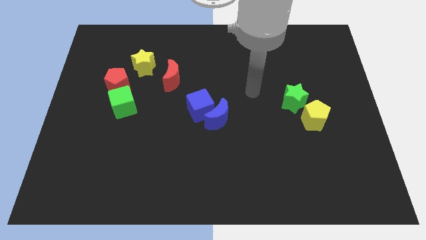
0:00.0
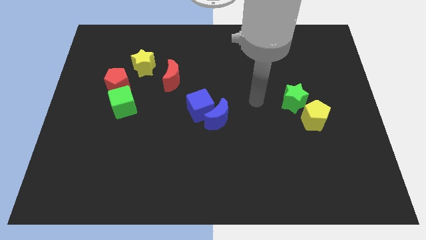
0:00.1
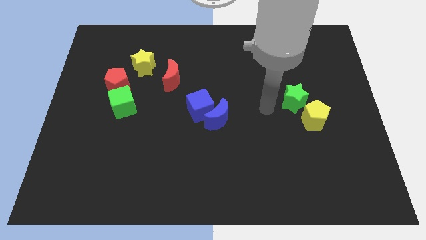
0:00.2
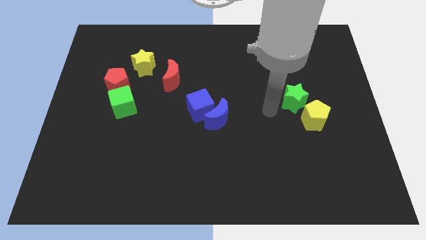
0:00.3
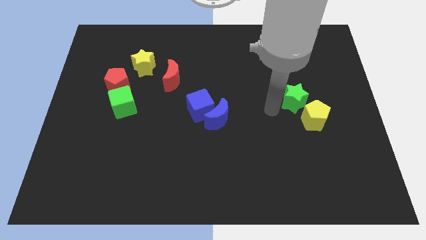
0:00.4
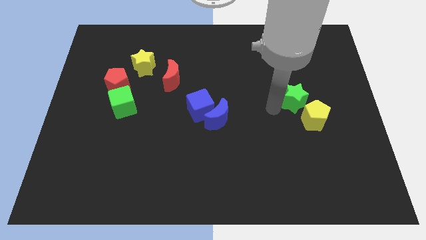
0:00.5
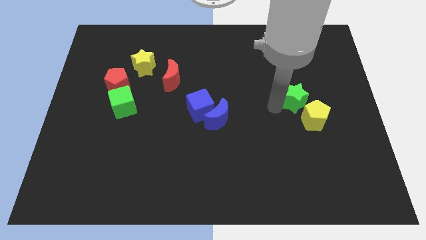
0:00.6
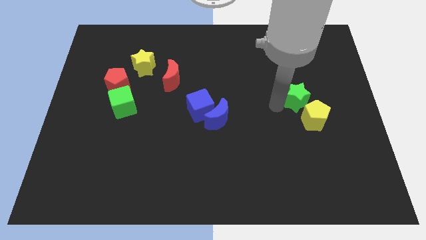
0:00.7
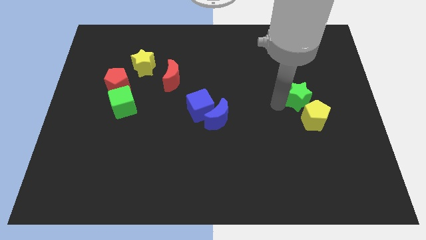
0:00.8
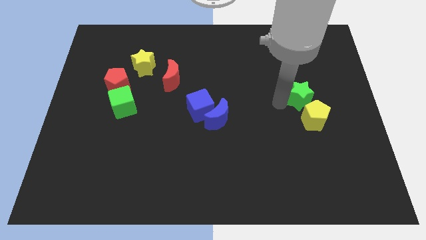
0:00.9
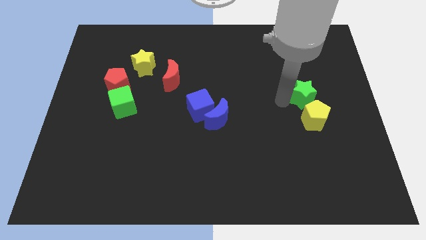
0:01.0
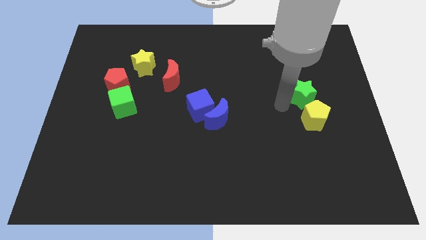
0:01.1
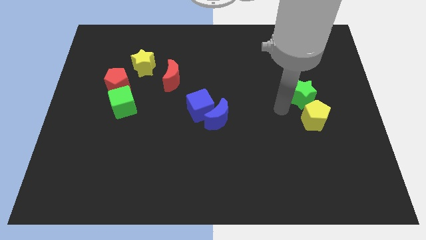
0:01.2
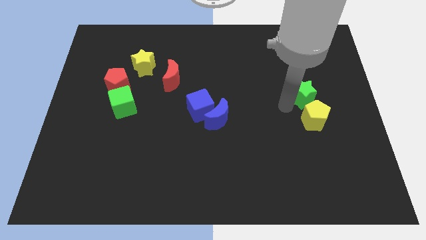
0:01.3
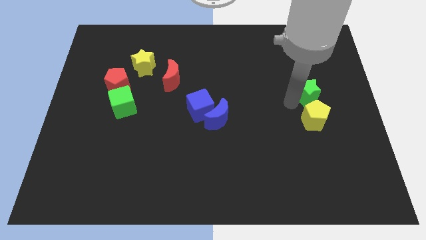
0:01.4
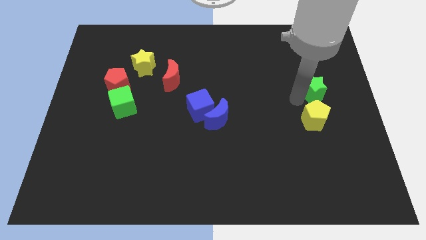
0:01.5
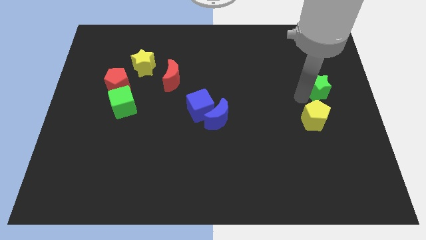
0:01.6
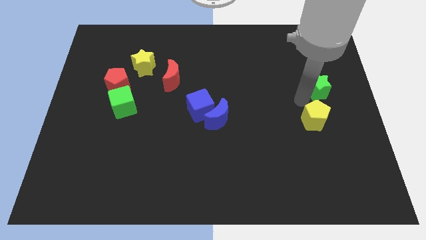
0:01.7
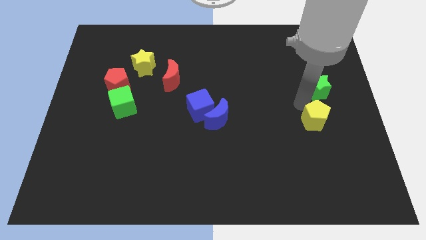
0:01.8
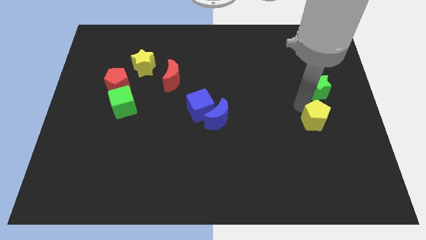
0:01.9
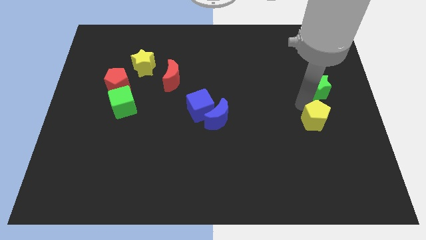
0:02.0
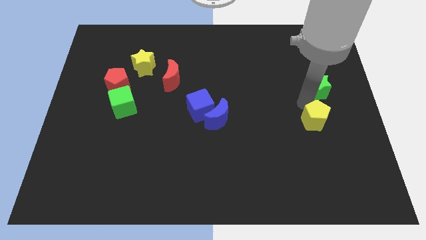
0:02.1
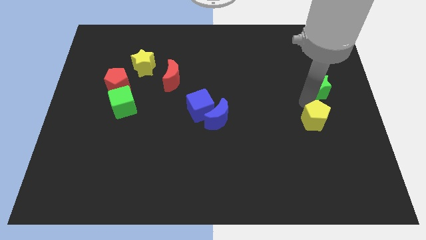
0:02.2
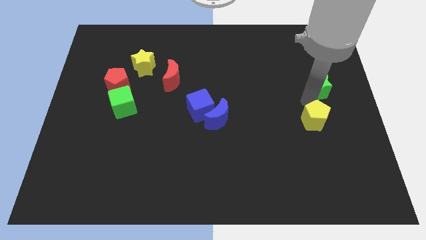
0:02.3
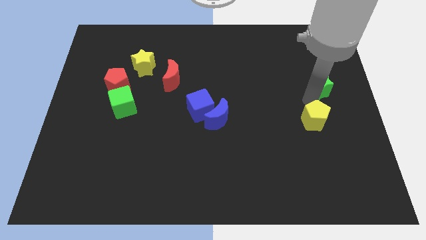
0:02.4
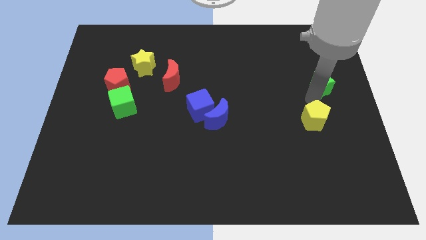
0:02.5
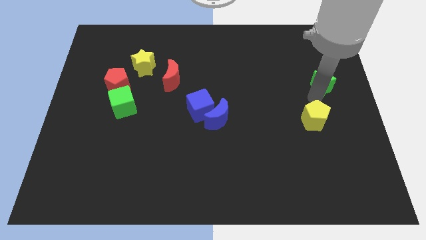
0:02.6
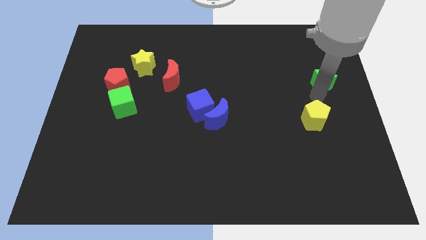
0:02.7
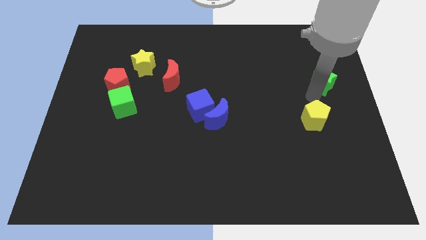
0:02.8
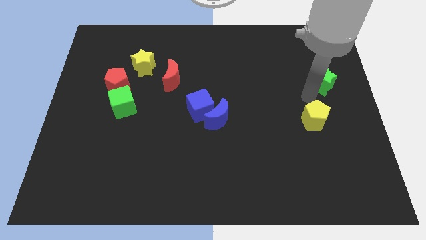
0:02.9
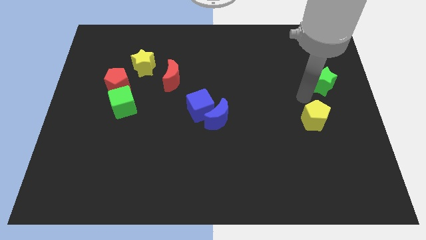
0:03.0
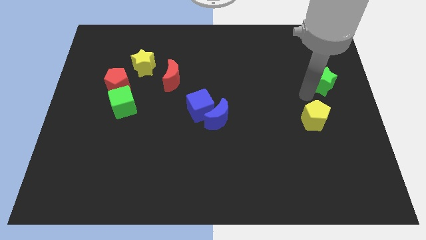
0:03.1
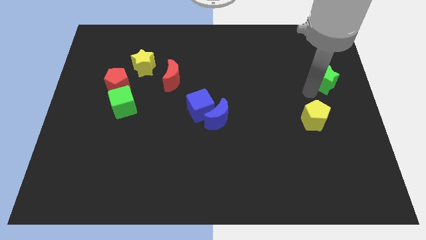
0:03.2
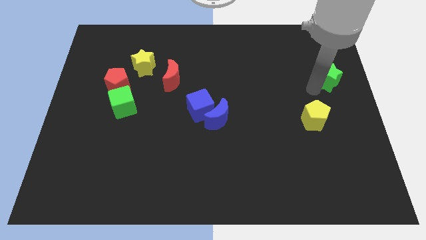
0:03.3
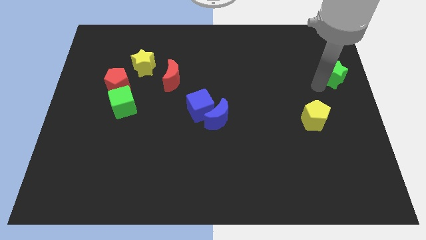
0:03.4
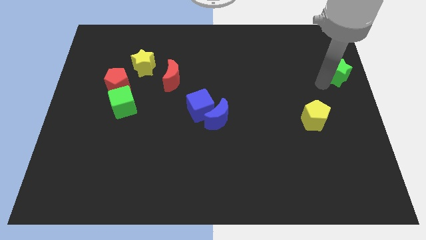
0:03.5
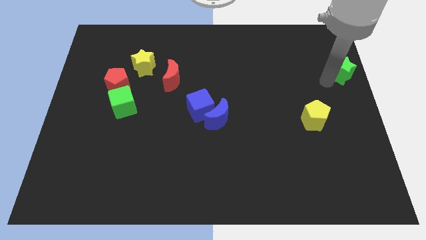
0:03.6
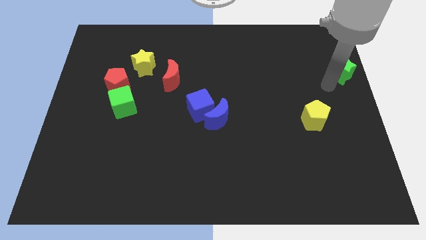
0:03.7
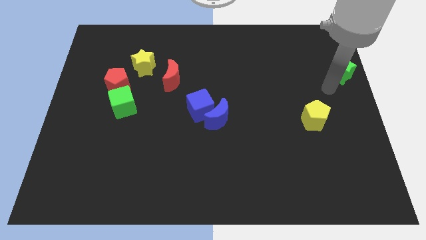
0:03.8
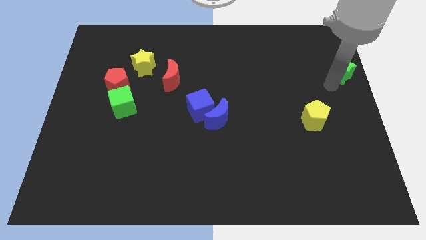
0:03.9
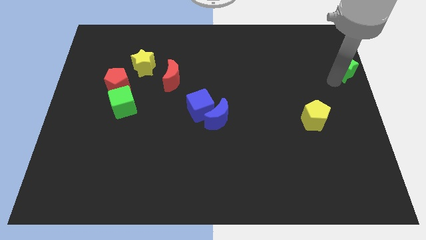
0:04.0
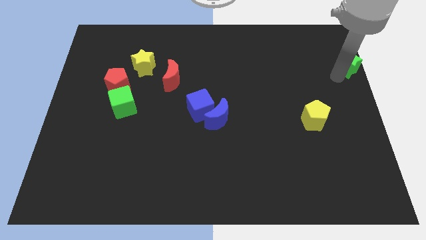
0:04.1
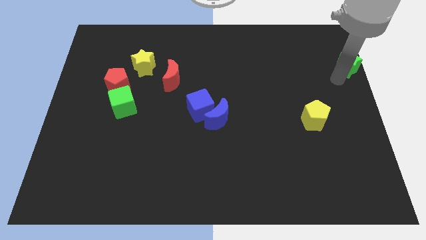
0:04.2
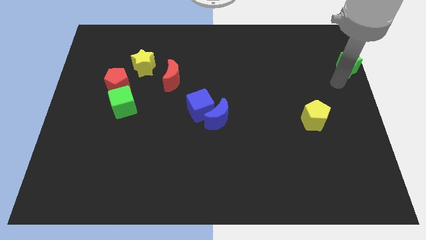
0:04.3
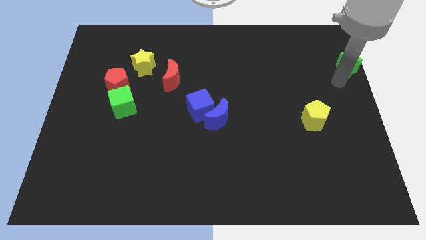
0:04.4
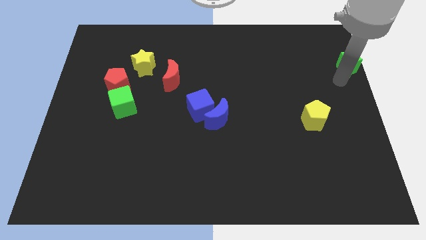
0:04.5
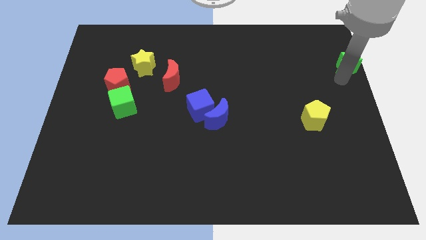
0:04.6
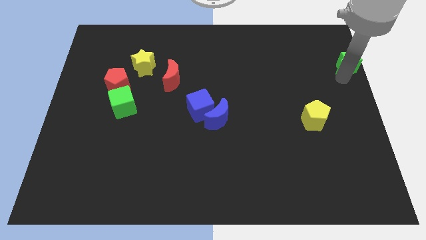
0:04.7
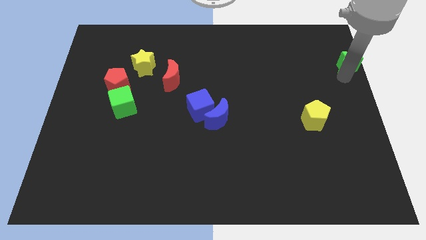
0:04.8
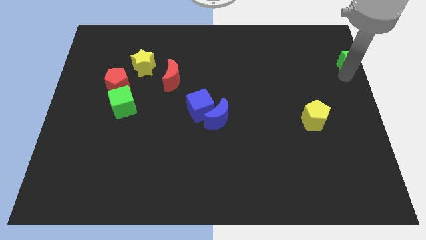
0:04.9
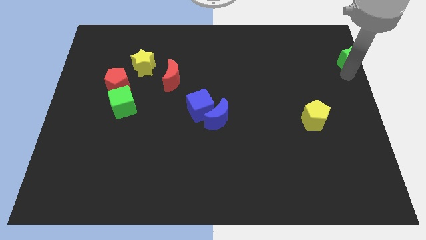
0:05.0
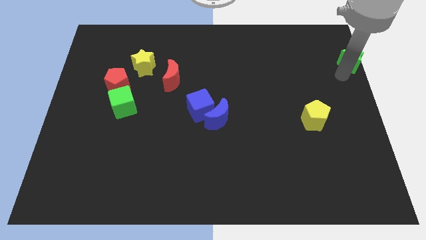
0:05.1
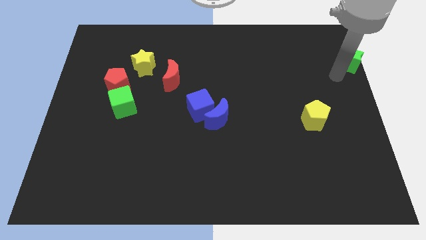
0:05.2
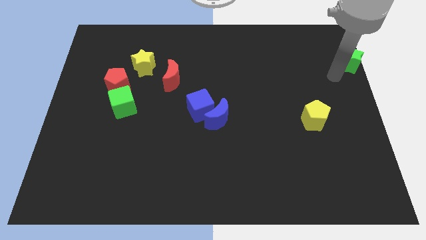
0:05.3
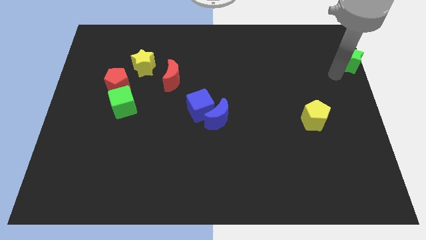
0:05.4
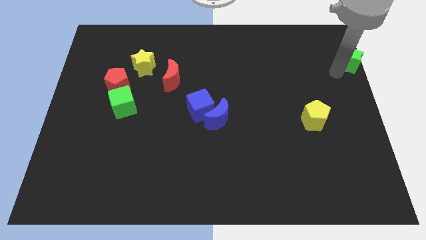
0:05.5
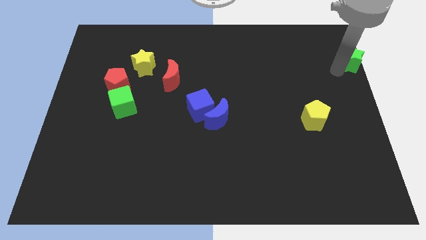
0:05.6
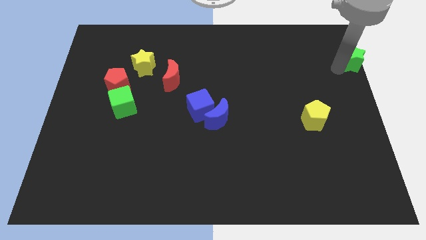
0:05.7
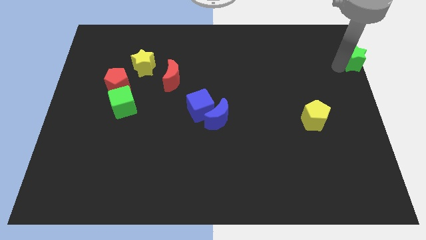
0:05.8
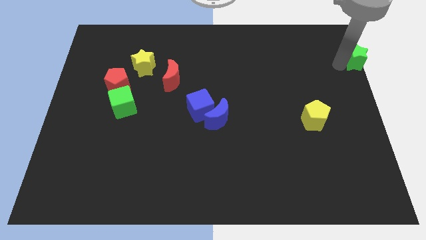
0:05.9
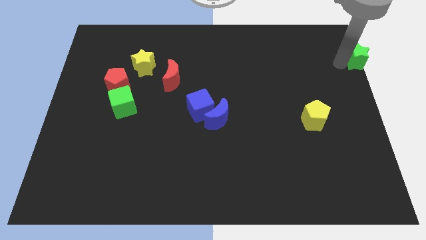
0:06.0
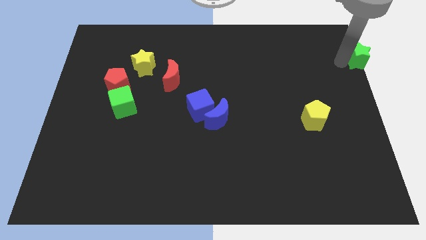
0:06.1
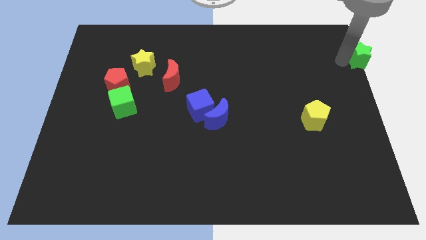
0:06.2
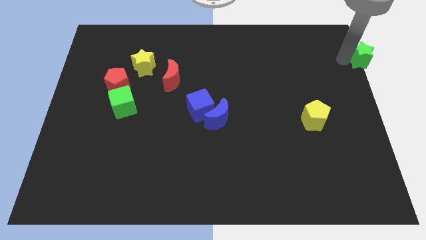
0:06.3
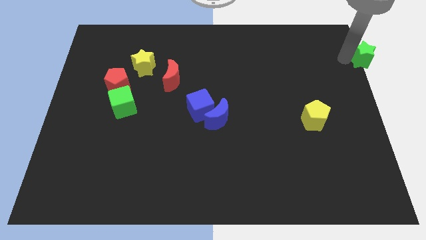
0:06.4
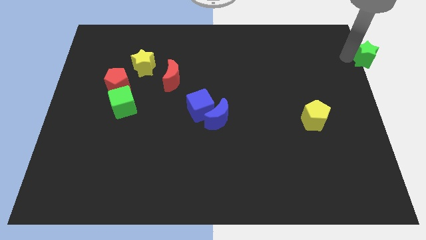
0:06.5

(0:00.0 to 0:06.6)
push the green star to the top right
